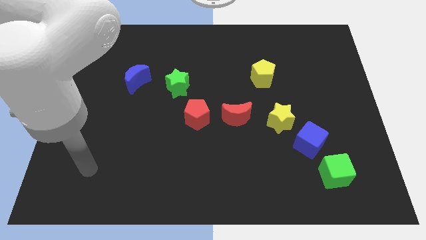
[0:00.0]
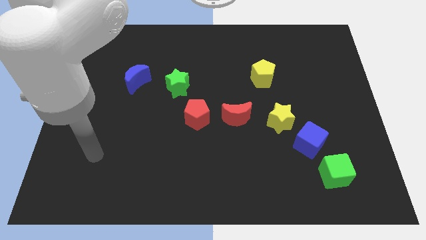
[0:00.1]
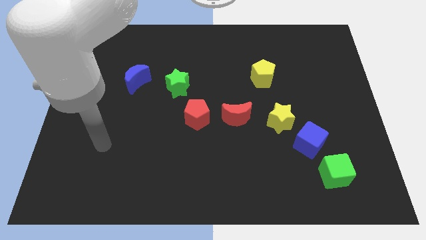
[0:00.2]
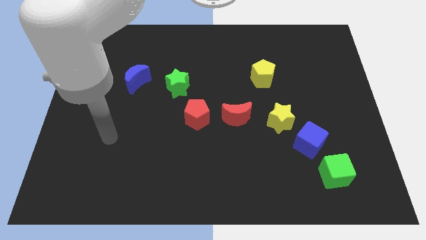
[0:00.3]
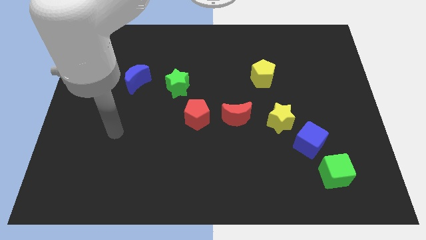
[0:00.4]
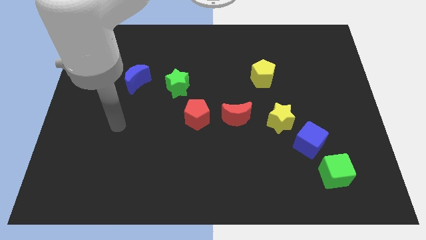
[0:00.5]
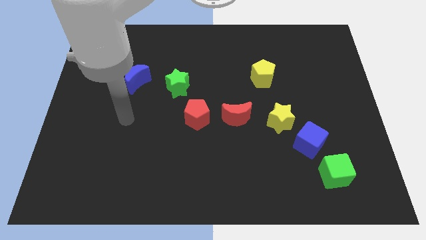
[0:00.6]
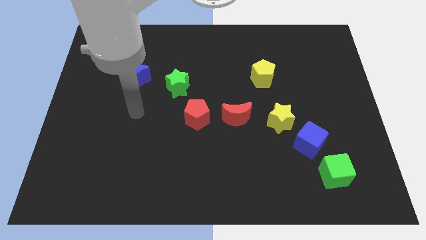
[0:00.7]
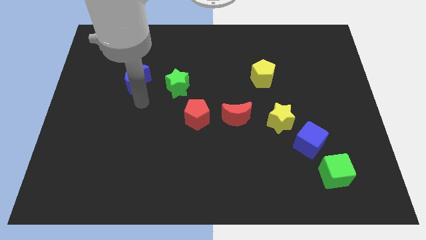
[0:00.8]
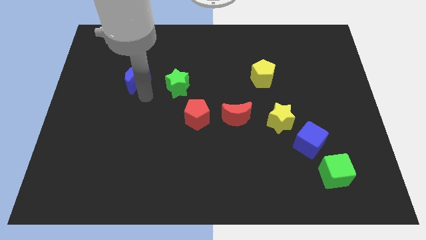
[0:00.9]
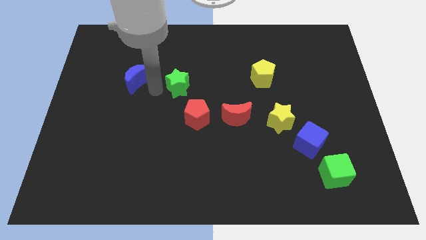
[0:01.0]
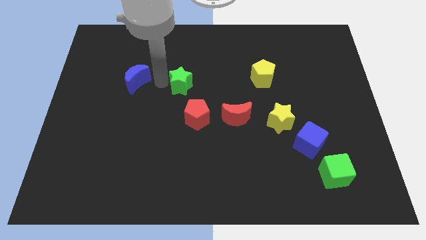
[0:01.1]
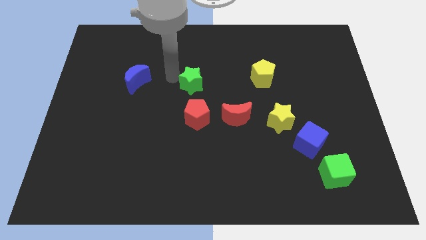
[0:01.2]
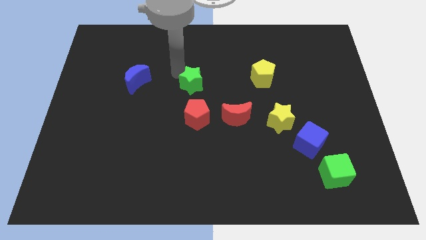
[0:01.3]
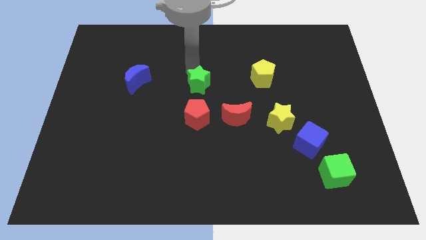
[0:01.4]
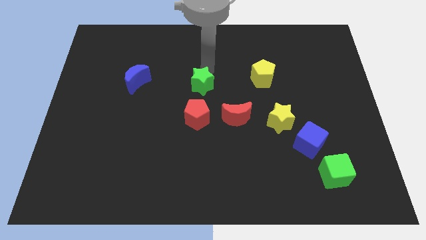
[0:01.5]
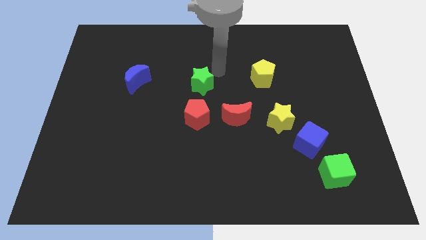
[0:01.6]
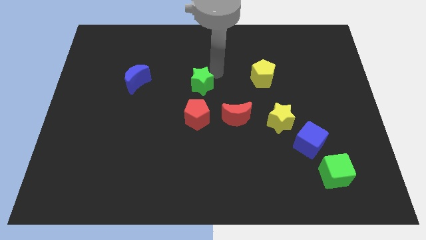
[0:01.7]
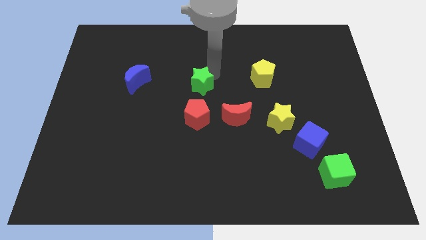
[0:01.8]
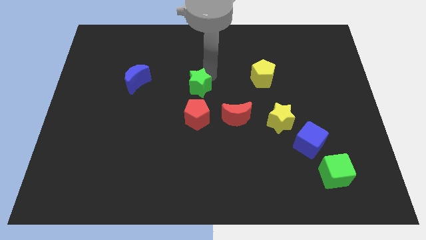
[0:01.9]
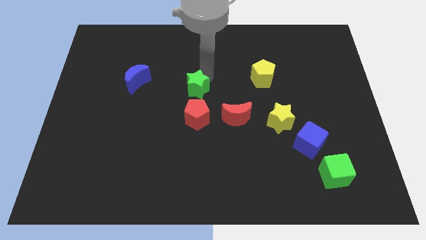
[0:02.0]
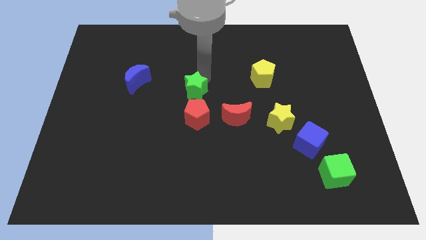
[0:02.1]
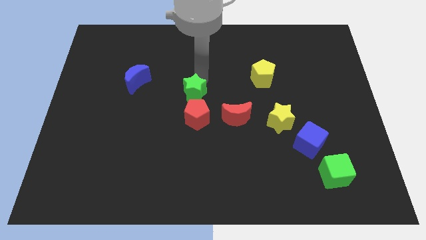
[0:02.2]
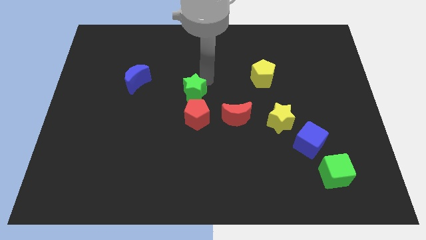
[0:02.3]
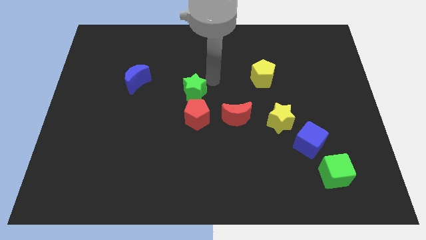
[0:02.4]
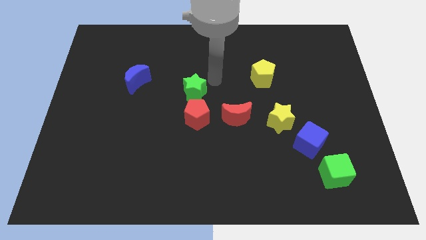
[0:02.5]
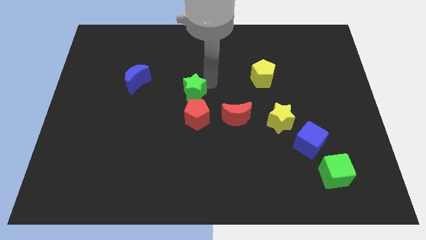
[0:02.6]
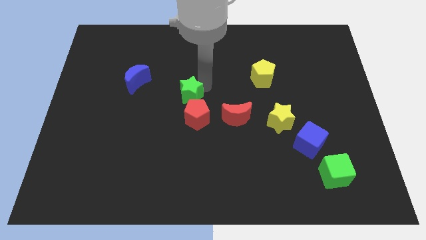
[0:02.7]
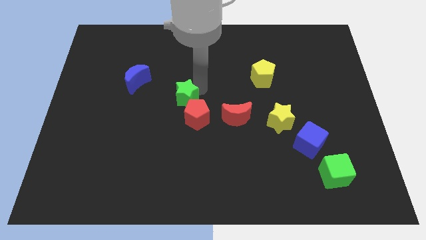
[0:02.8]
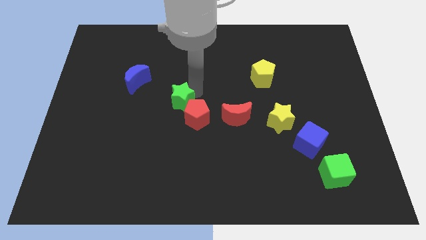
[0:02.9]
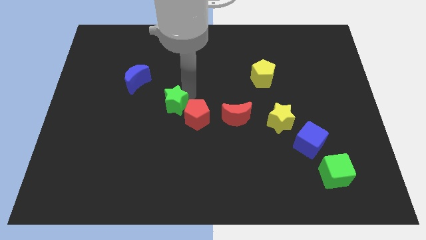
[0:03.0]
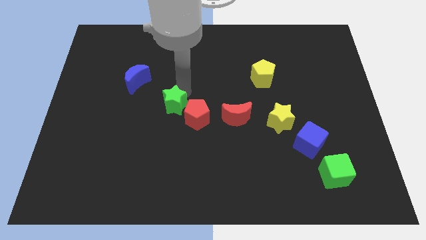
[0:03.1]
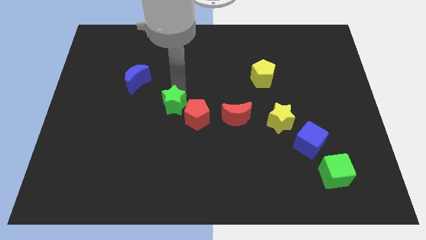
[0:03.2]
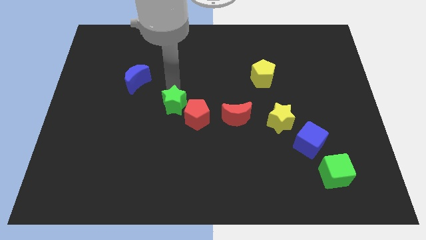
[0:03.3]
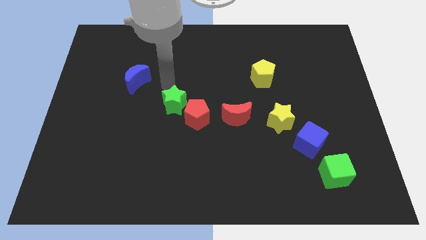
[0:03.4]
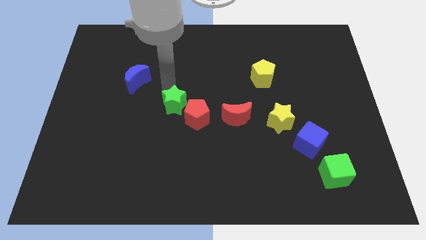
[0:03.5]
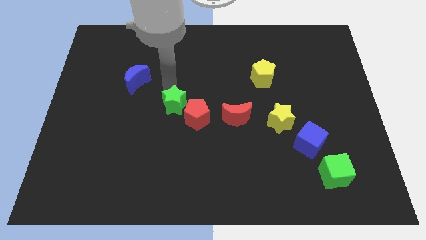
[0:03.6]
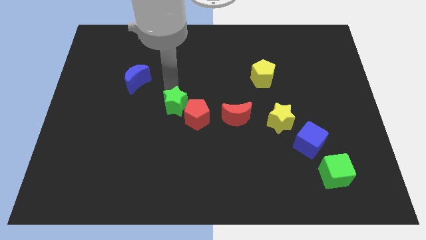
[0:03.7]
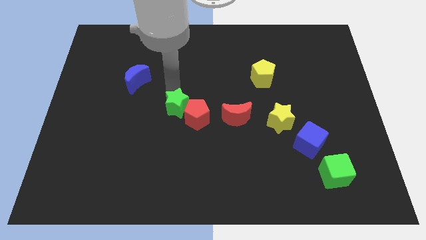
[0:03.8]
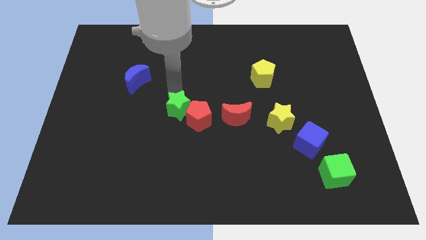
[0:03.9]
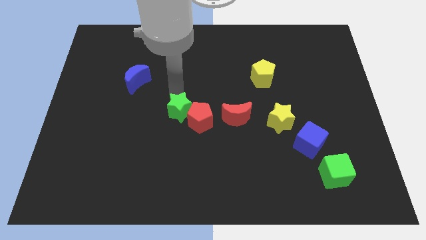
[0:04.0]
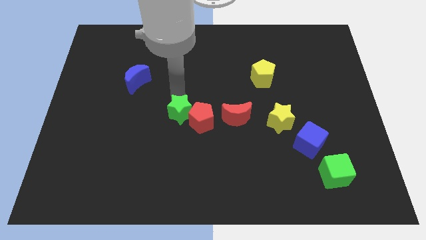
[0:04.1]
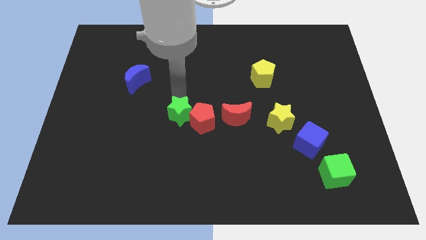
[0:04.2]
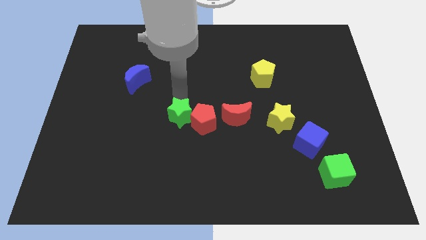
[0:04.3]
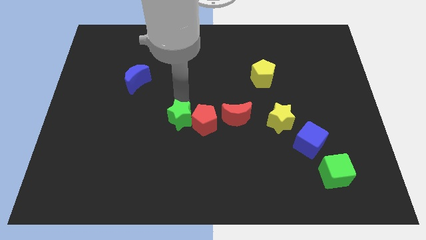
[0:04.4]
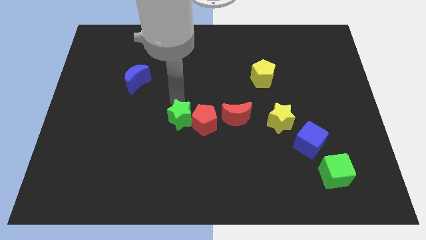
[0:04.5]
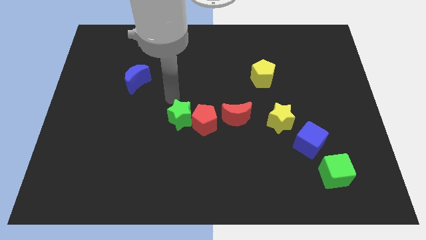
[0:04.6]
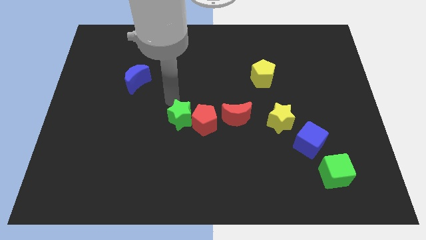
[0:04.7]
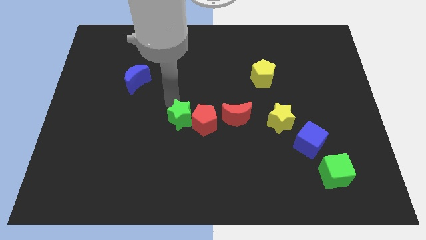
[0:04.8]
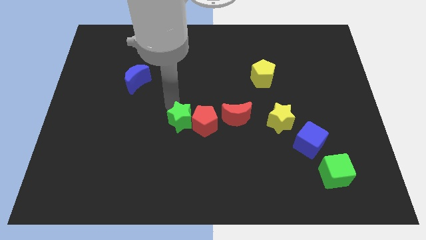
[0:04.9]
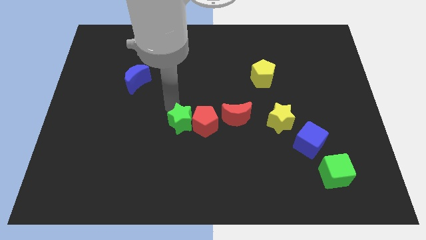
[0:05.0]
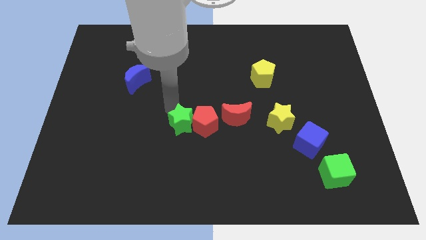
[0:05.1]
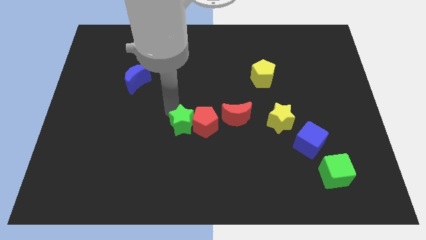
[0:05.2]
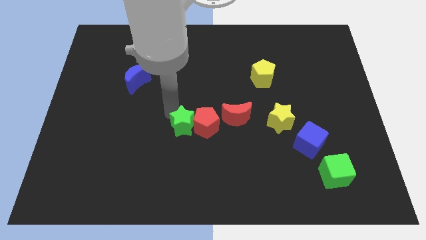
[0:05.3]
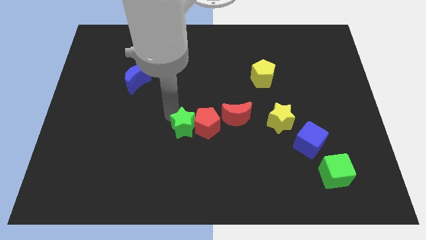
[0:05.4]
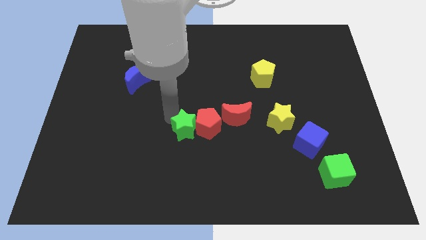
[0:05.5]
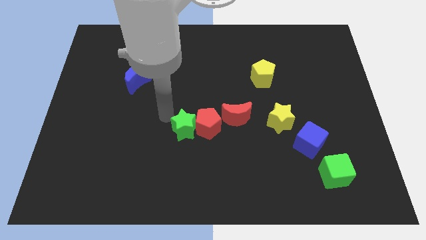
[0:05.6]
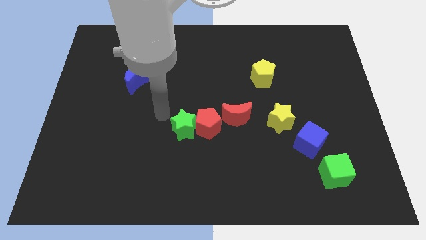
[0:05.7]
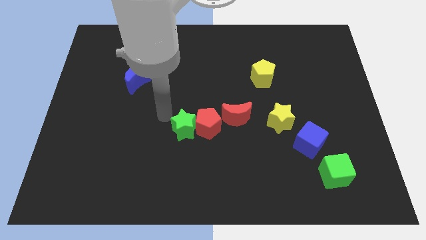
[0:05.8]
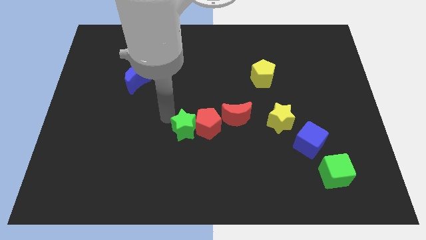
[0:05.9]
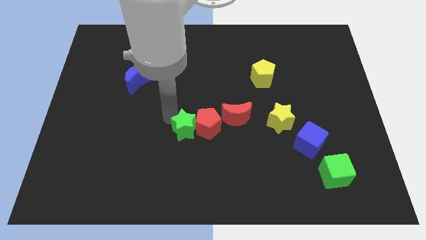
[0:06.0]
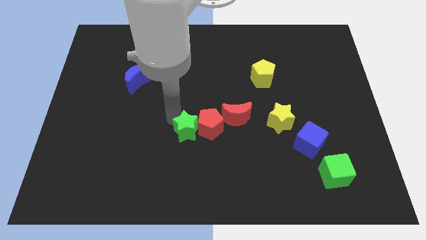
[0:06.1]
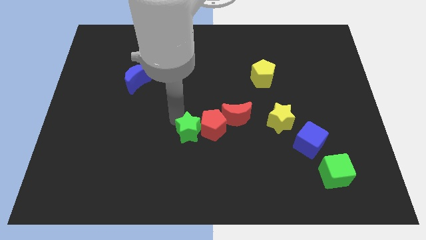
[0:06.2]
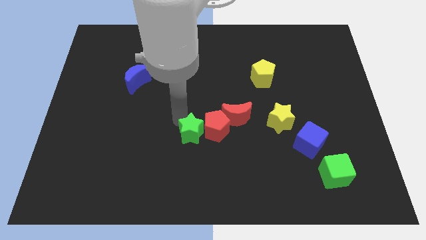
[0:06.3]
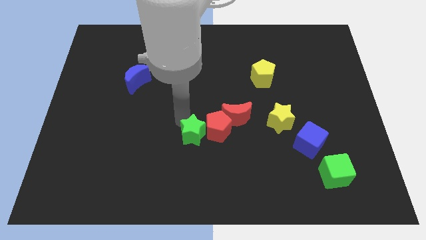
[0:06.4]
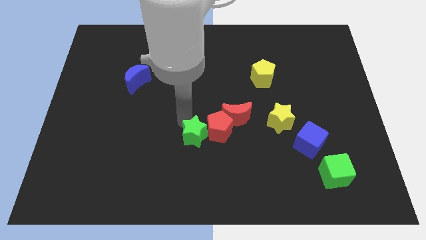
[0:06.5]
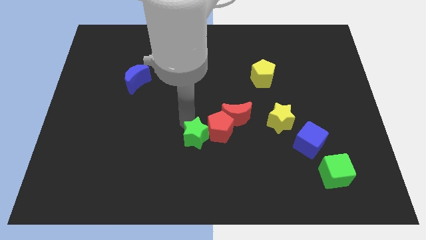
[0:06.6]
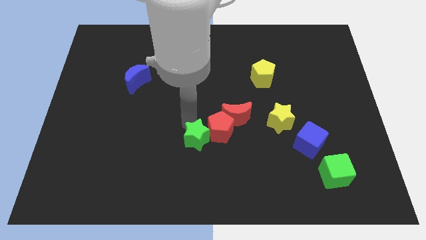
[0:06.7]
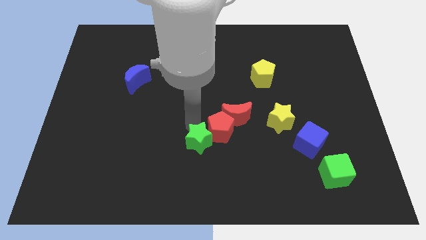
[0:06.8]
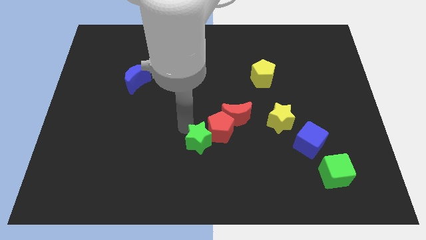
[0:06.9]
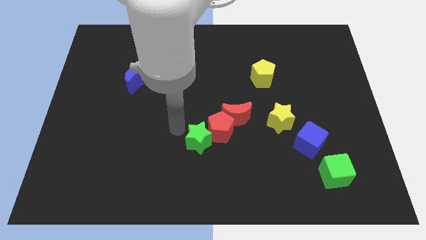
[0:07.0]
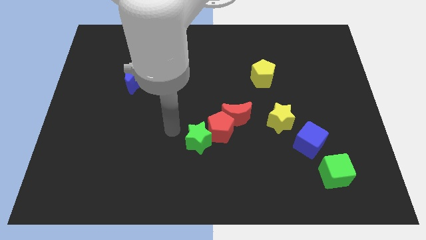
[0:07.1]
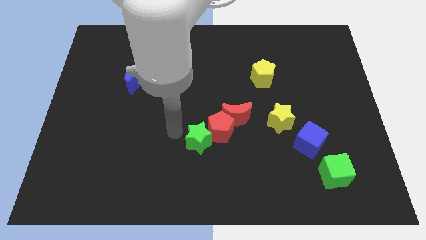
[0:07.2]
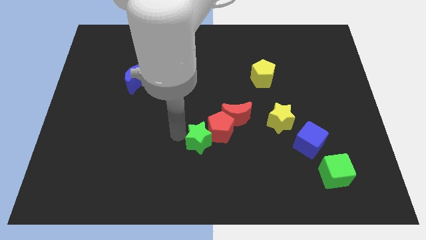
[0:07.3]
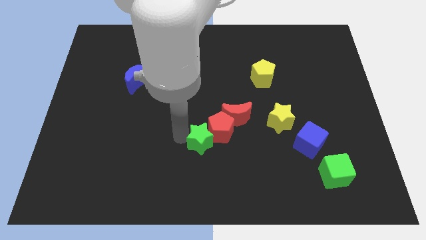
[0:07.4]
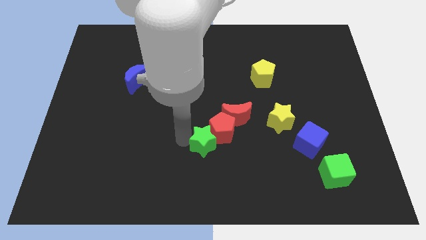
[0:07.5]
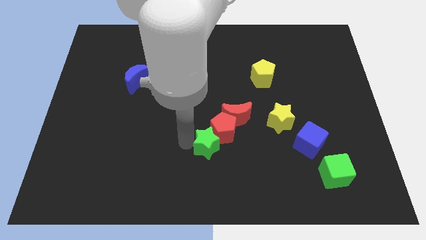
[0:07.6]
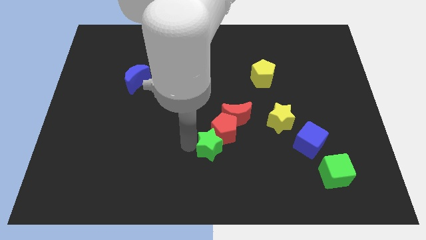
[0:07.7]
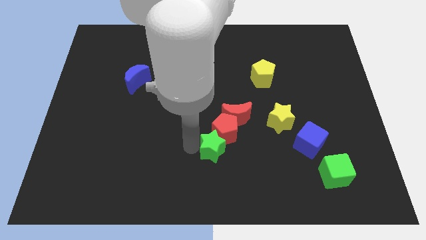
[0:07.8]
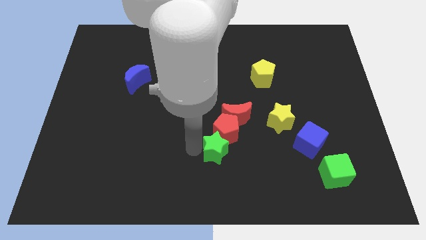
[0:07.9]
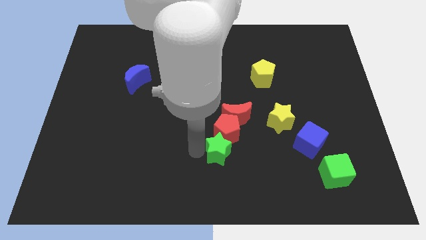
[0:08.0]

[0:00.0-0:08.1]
move the green star below the red moon
